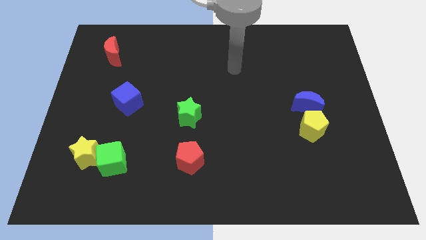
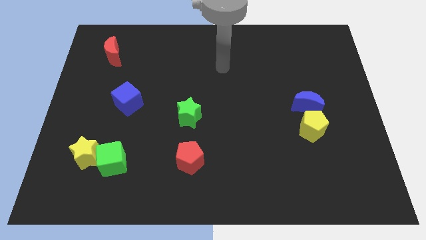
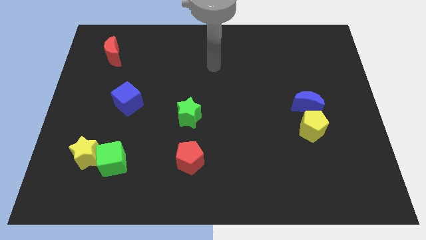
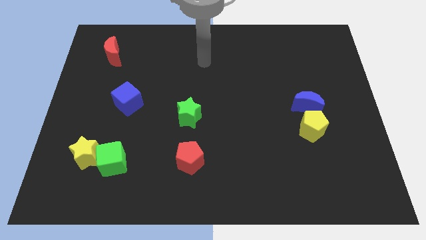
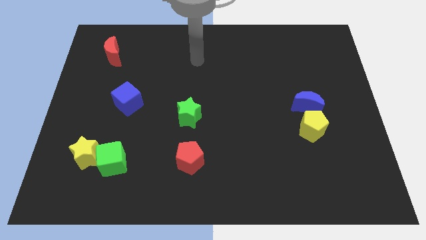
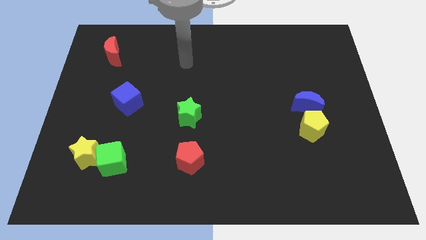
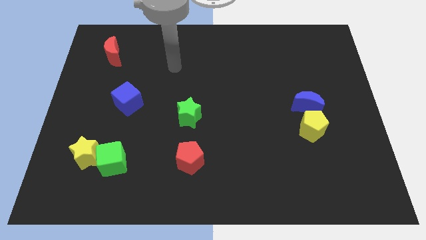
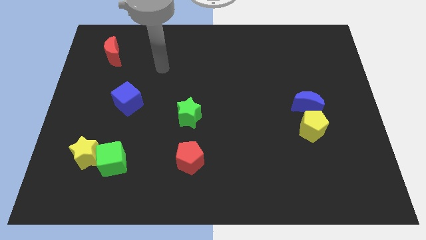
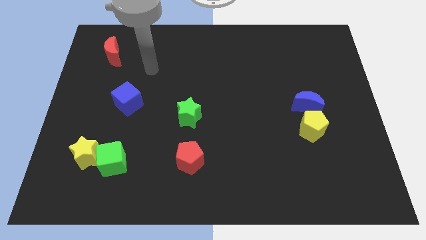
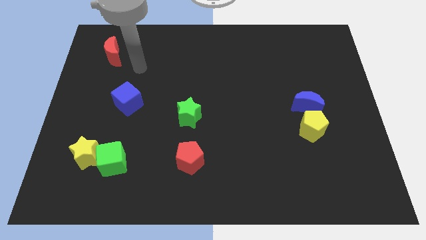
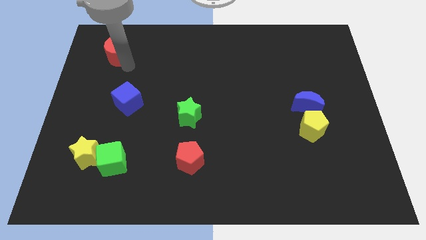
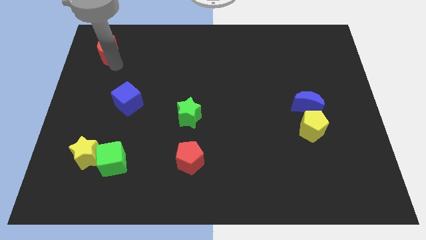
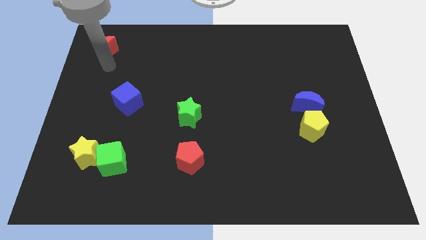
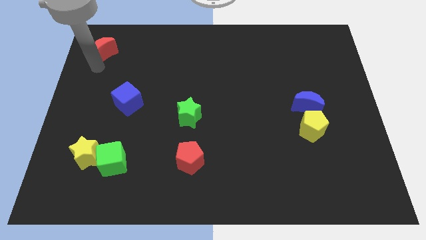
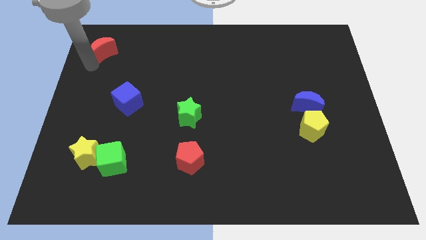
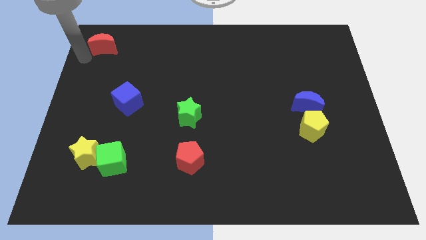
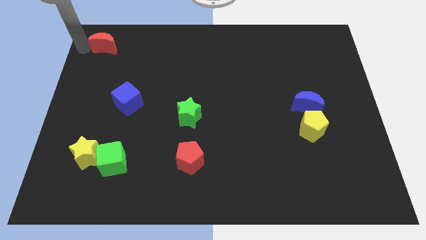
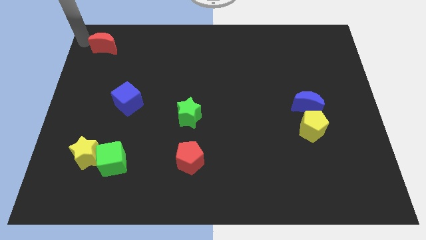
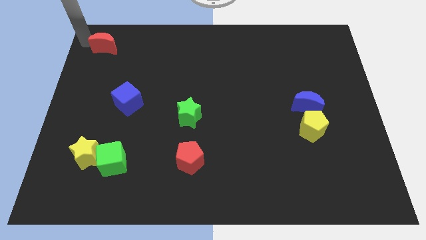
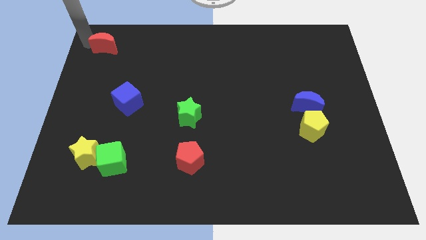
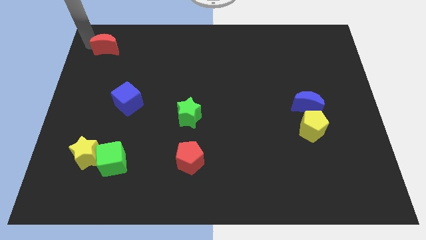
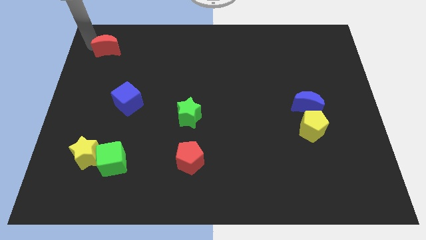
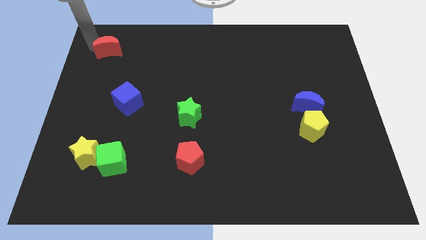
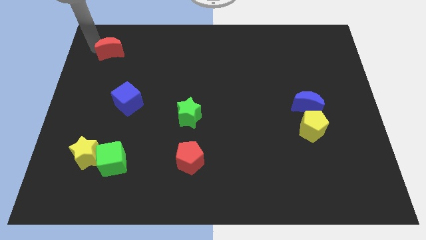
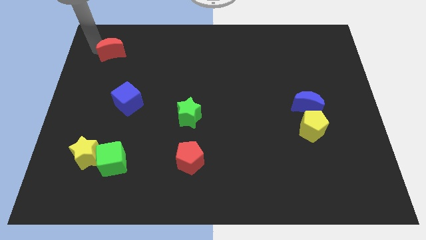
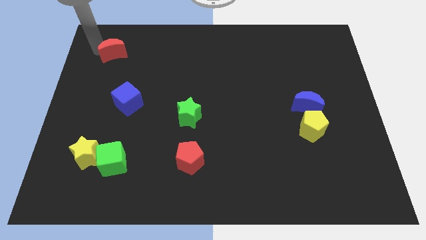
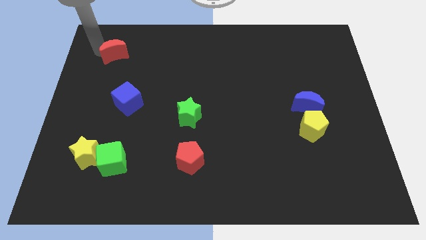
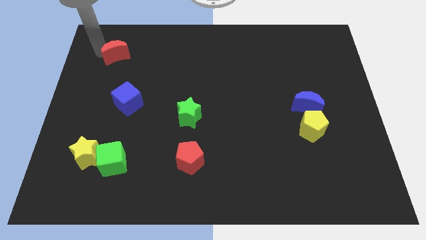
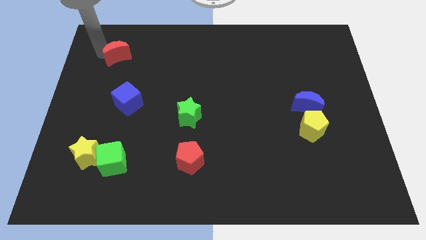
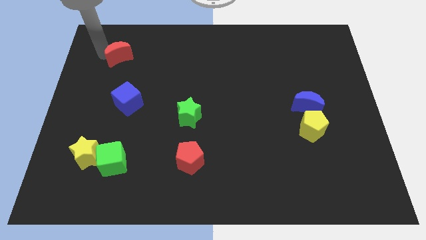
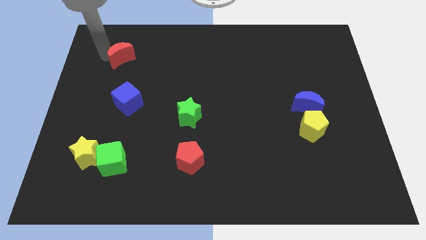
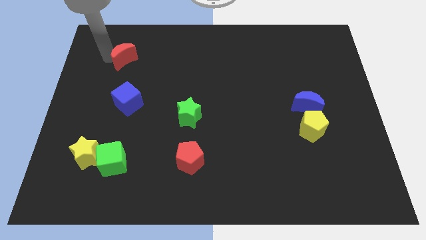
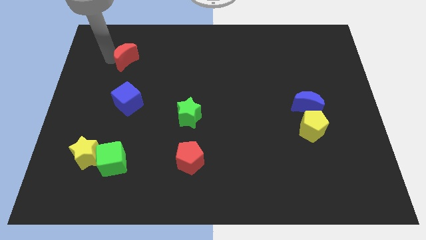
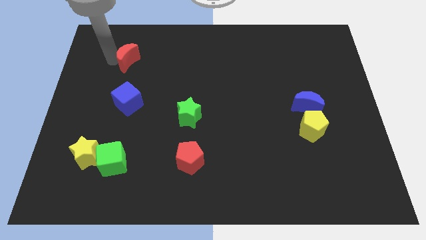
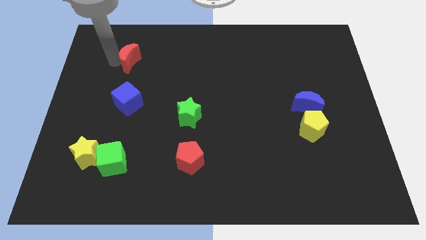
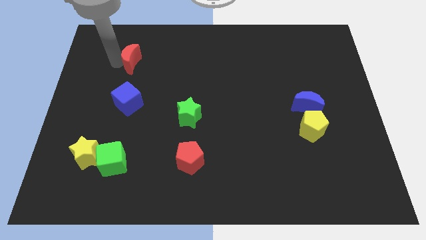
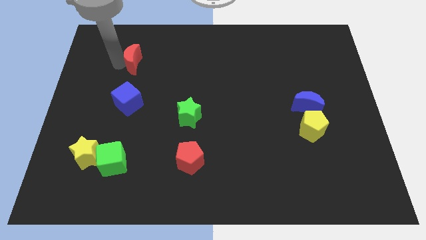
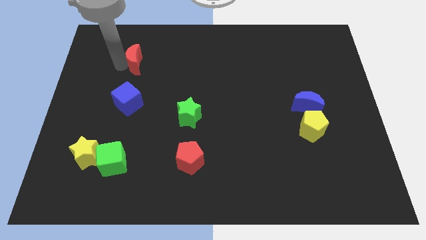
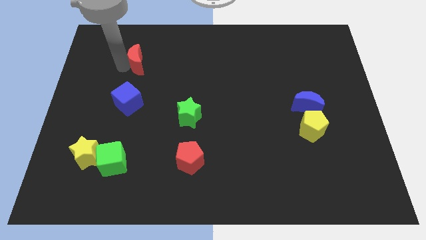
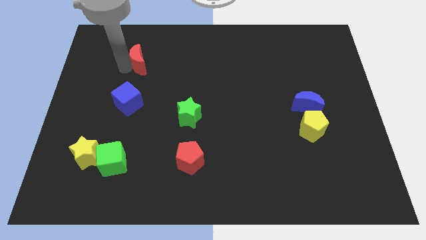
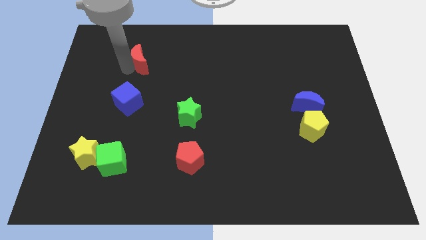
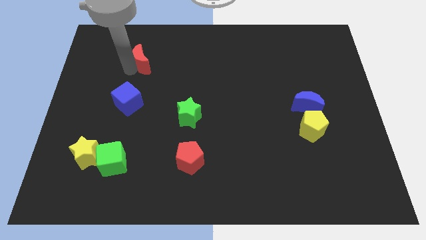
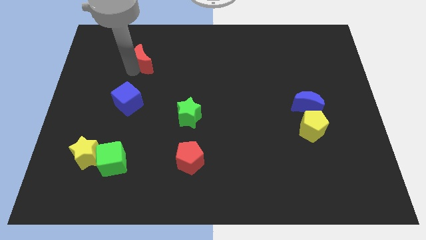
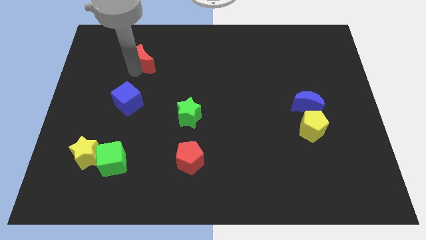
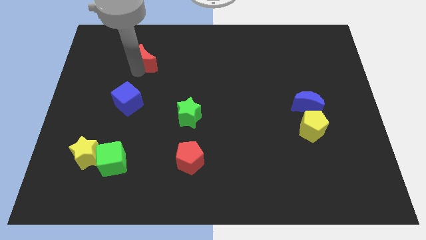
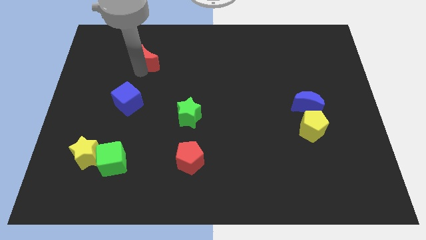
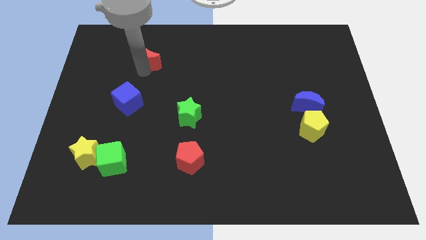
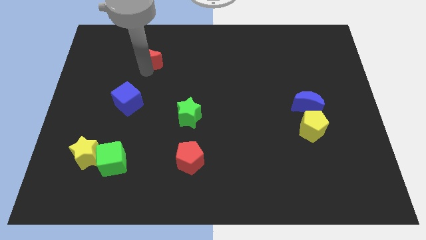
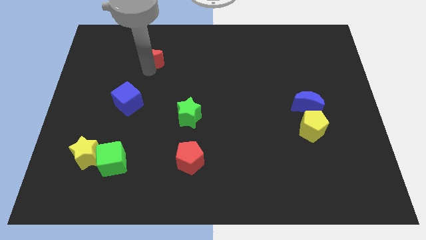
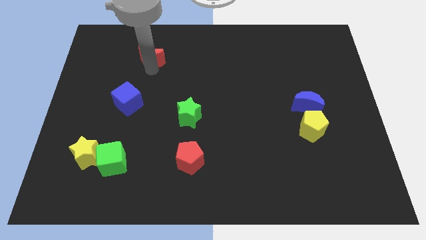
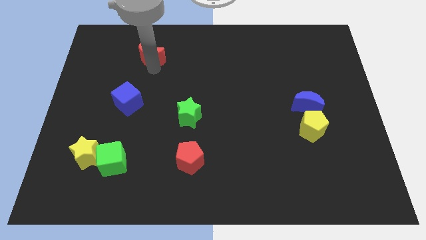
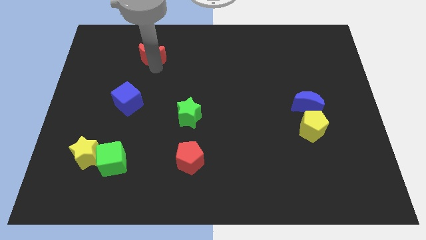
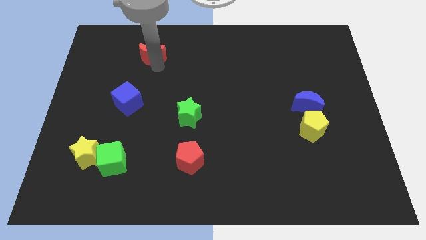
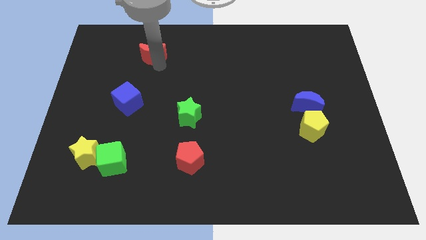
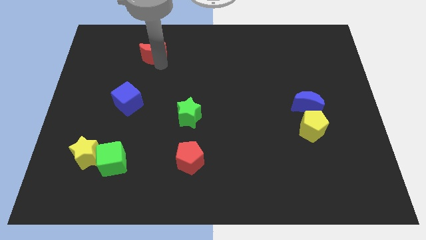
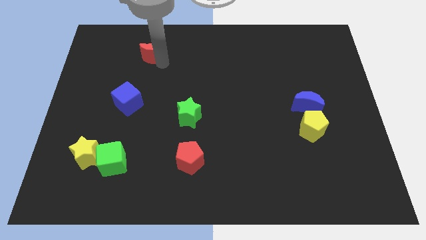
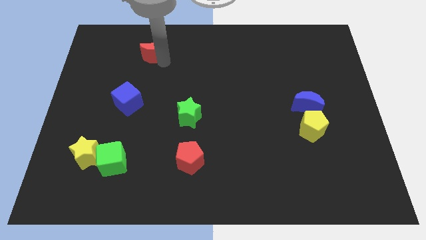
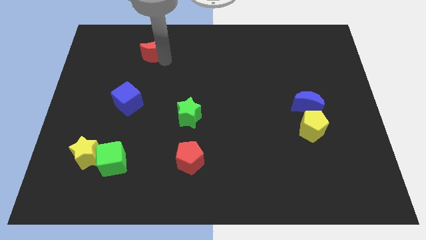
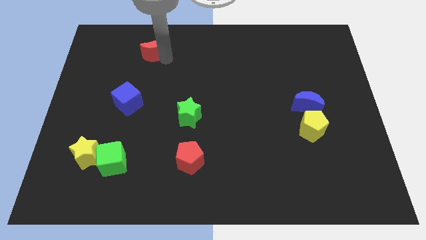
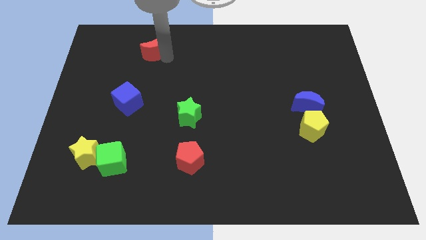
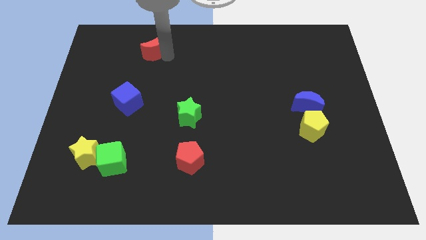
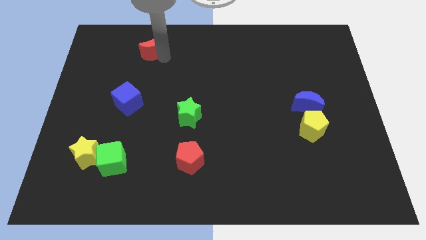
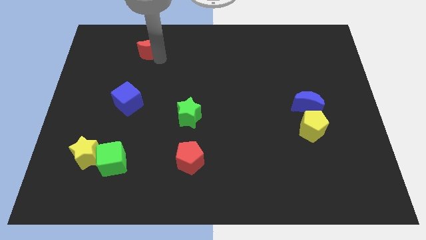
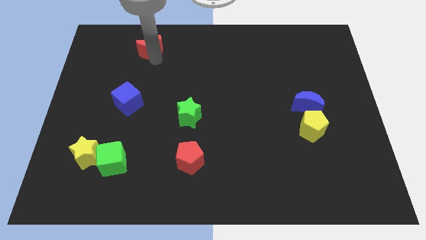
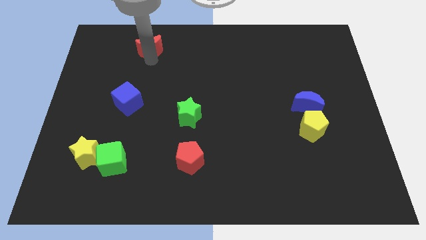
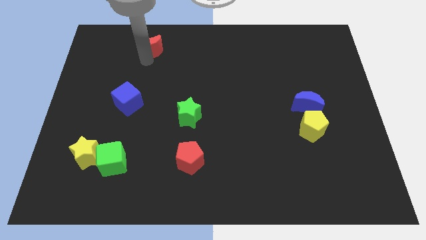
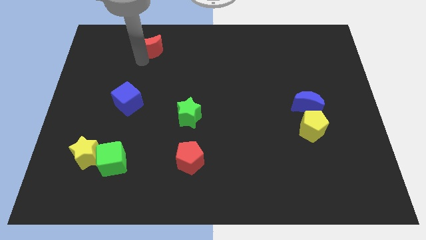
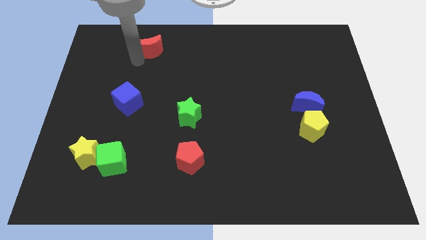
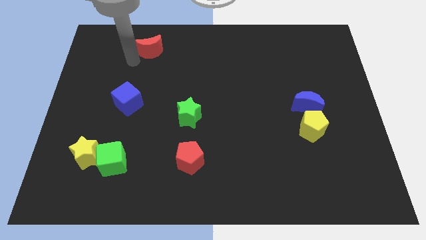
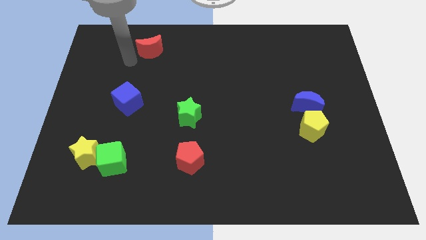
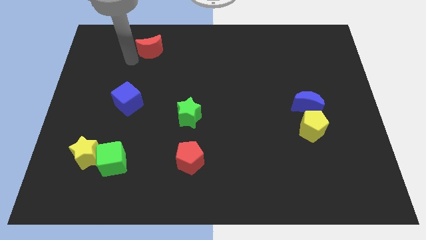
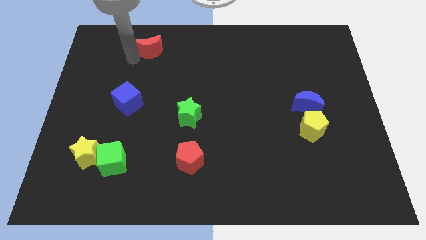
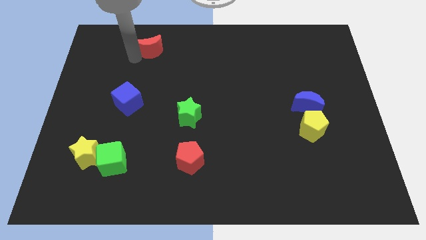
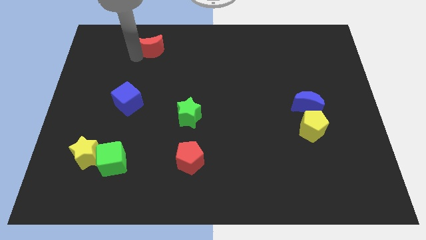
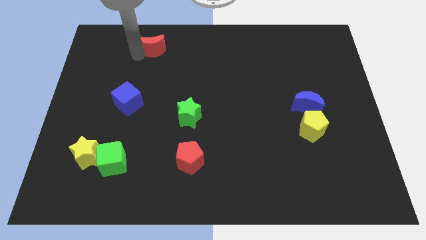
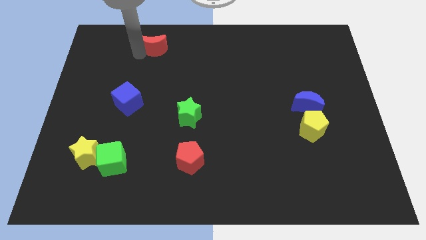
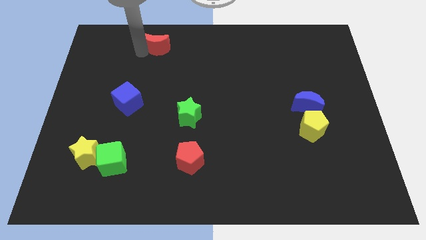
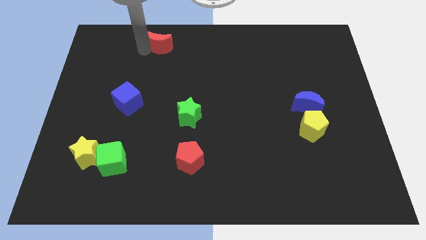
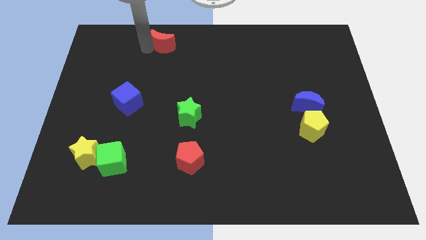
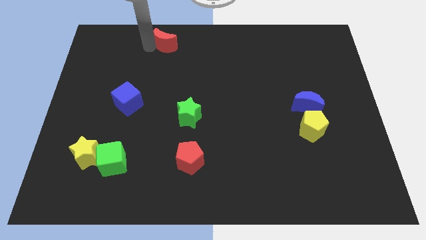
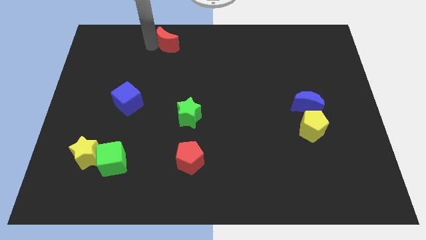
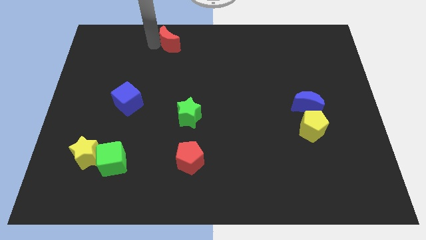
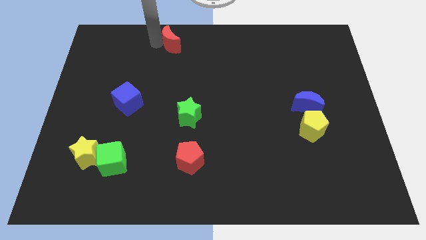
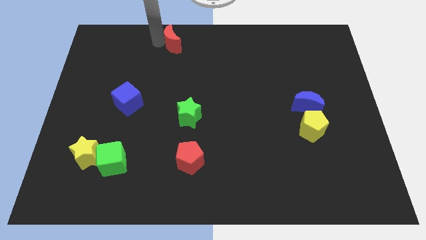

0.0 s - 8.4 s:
move the red moon to the top
